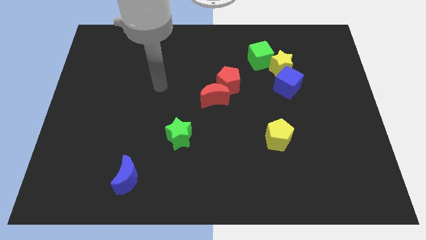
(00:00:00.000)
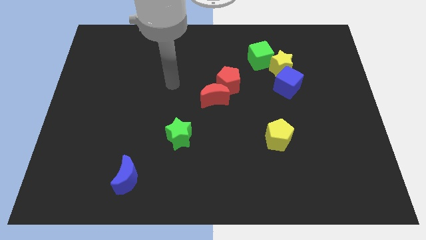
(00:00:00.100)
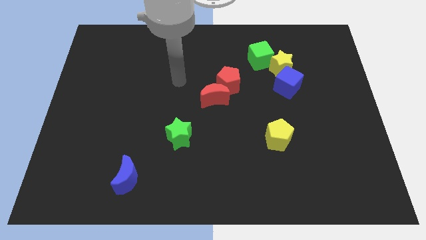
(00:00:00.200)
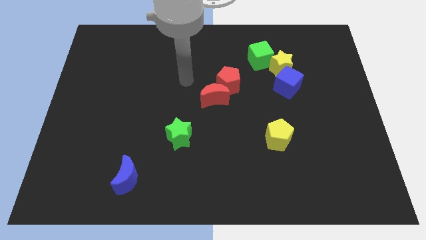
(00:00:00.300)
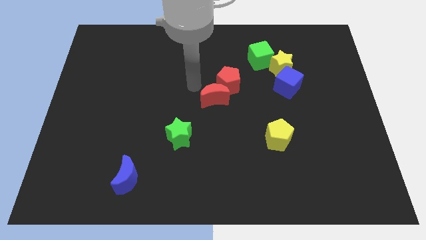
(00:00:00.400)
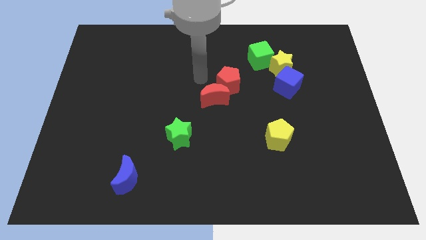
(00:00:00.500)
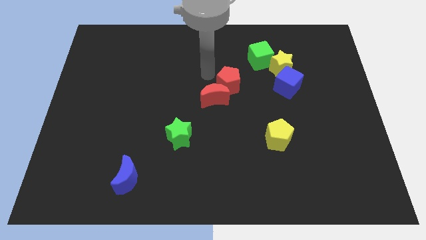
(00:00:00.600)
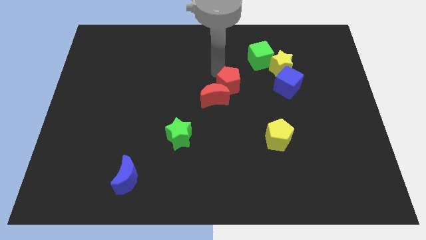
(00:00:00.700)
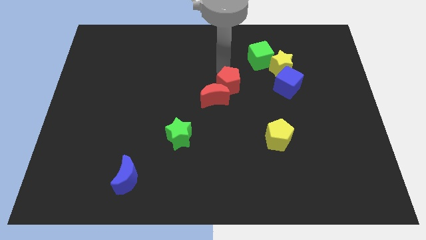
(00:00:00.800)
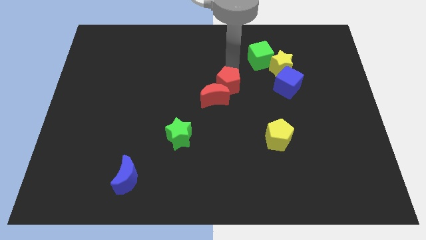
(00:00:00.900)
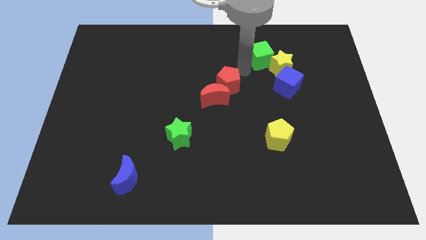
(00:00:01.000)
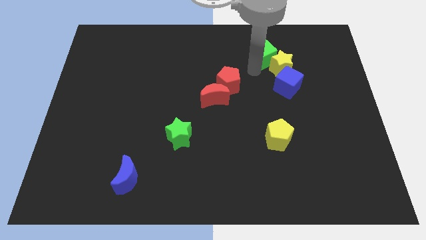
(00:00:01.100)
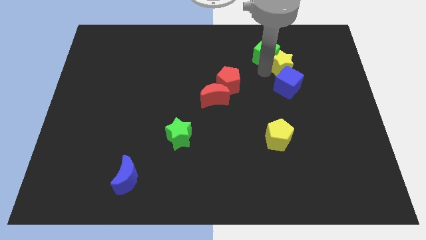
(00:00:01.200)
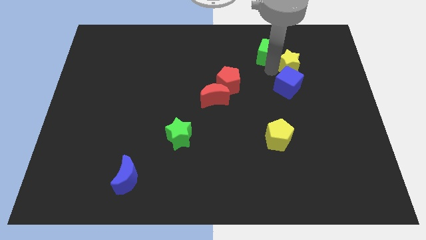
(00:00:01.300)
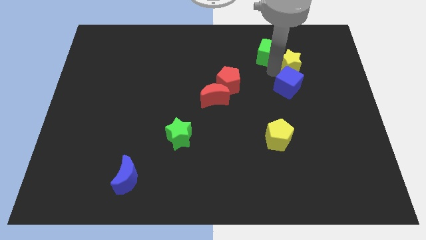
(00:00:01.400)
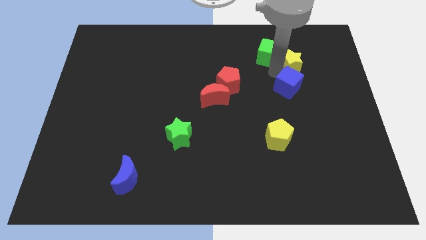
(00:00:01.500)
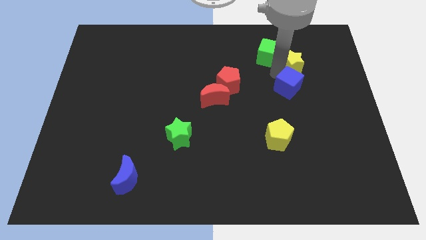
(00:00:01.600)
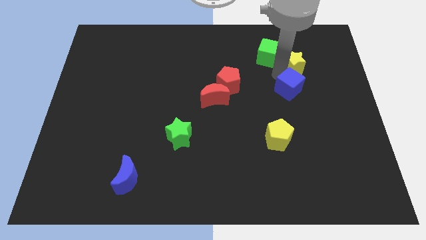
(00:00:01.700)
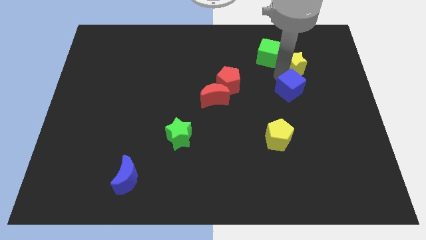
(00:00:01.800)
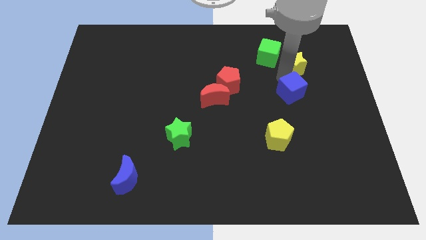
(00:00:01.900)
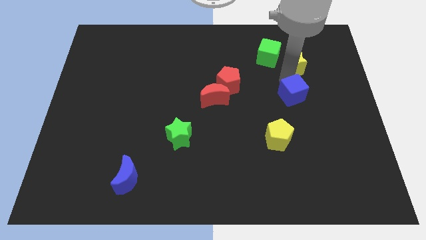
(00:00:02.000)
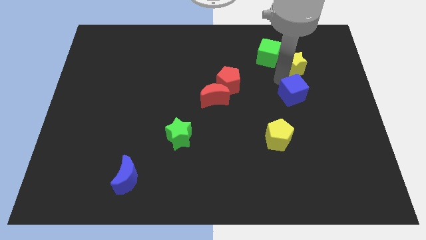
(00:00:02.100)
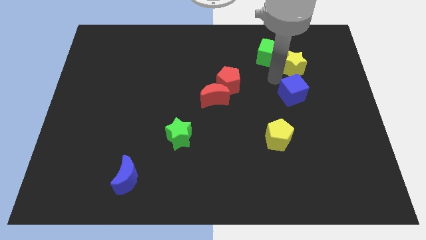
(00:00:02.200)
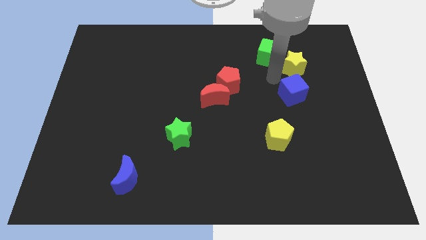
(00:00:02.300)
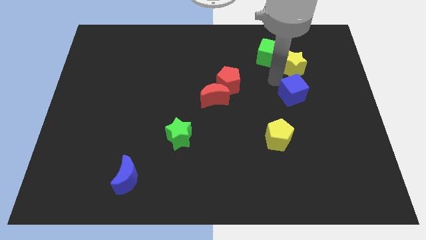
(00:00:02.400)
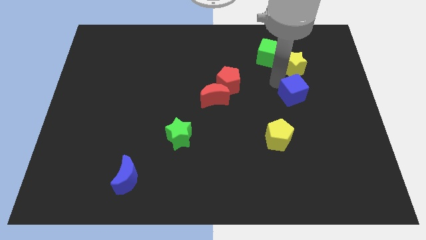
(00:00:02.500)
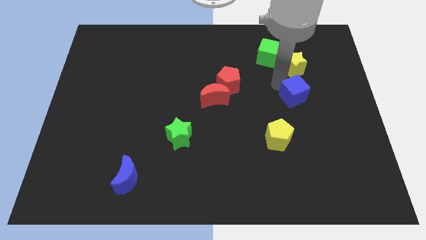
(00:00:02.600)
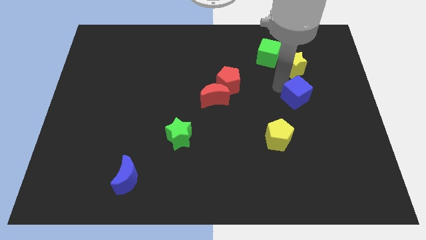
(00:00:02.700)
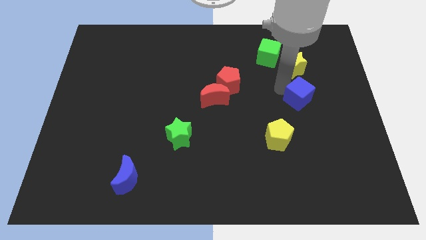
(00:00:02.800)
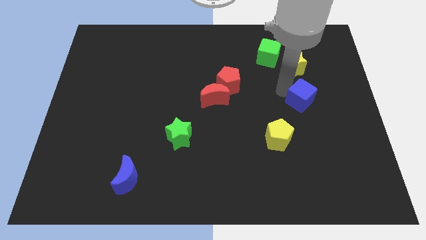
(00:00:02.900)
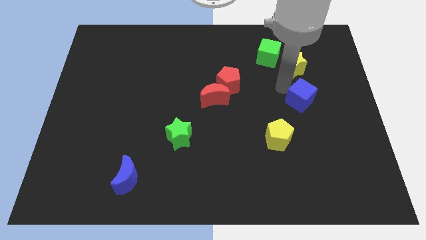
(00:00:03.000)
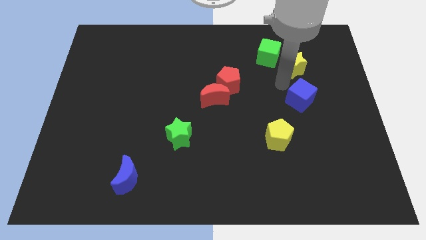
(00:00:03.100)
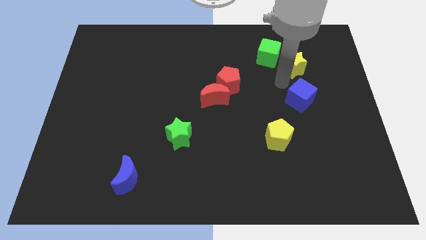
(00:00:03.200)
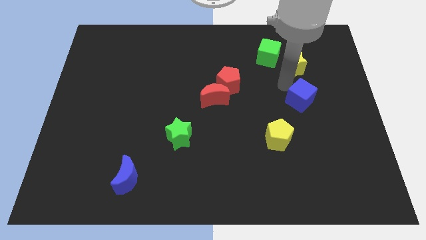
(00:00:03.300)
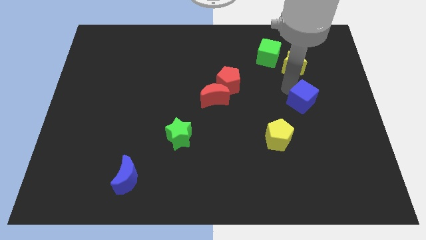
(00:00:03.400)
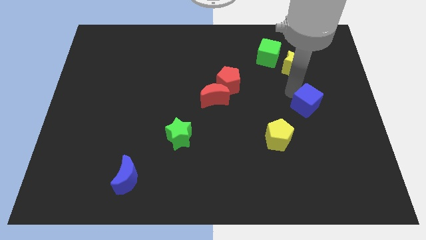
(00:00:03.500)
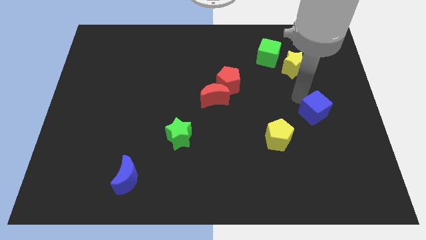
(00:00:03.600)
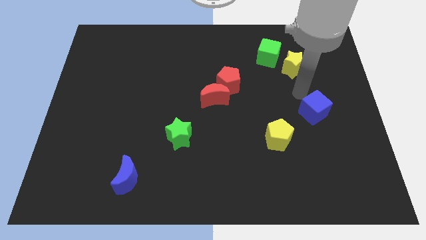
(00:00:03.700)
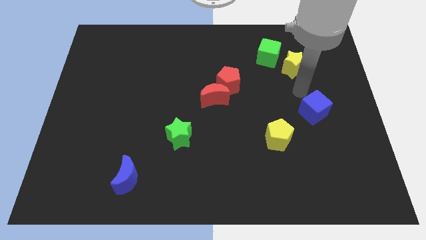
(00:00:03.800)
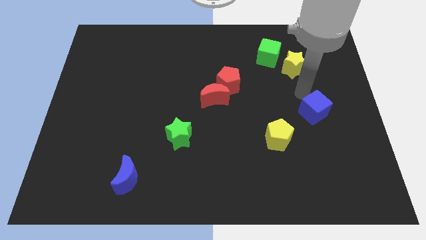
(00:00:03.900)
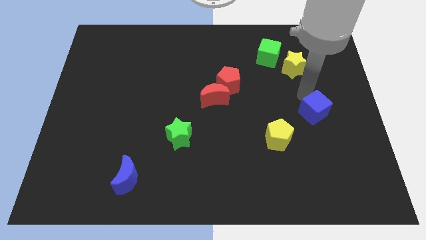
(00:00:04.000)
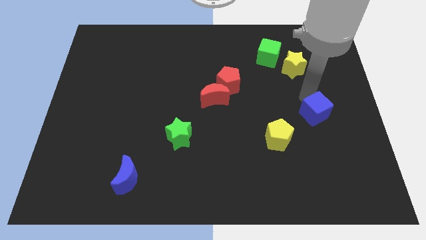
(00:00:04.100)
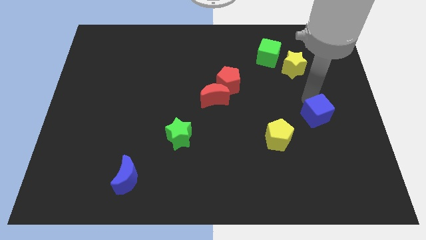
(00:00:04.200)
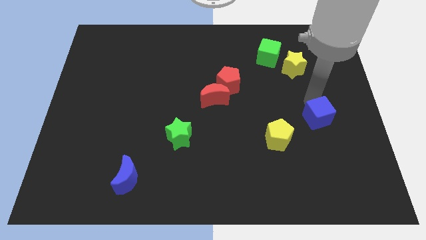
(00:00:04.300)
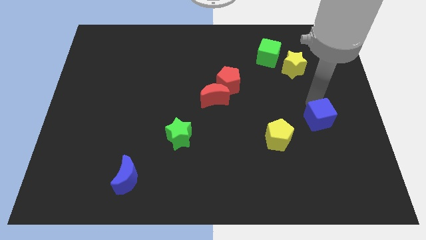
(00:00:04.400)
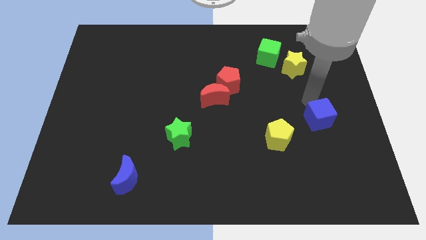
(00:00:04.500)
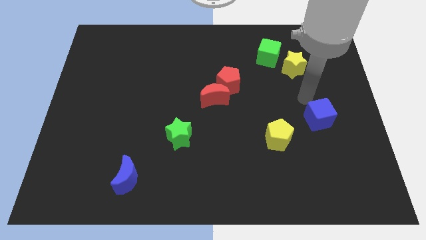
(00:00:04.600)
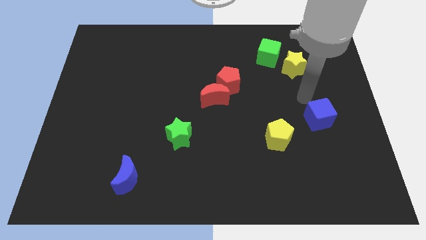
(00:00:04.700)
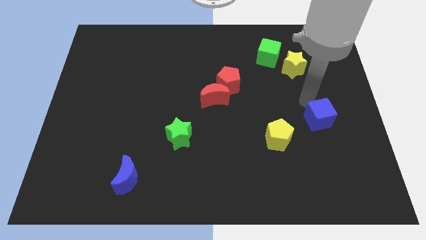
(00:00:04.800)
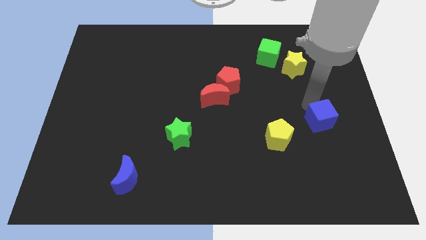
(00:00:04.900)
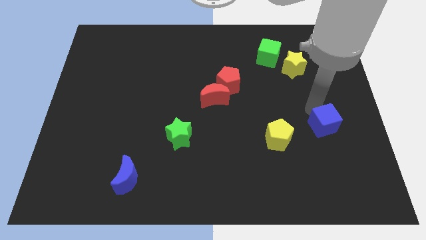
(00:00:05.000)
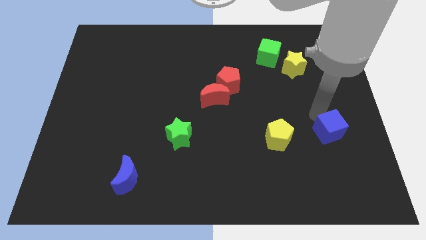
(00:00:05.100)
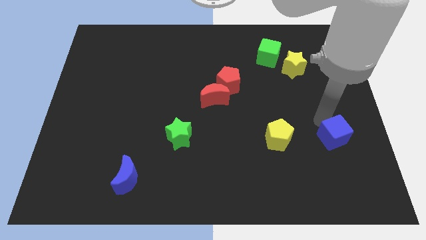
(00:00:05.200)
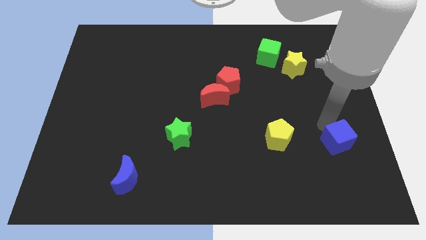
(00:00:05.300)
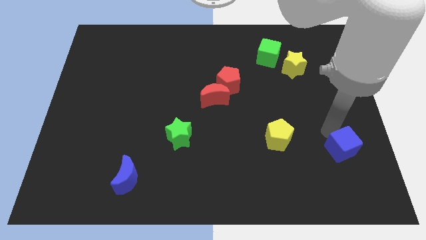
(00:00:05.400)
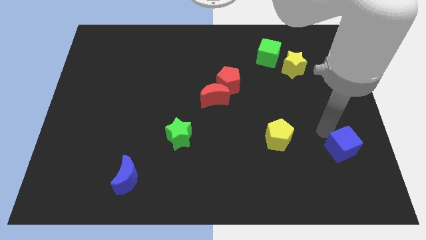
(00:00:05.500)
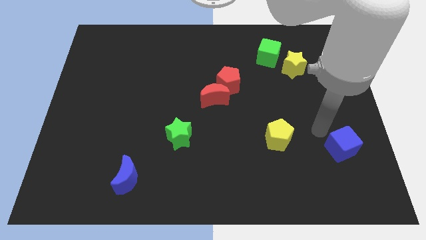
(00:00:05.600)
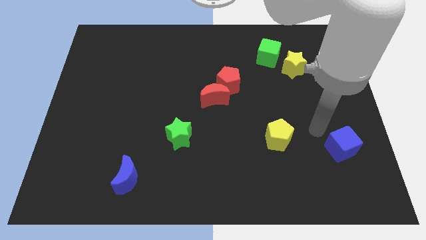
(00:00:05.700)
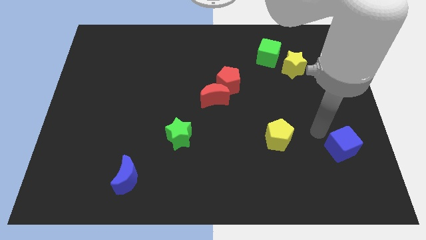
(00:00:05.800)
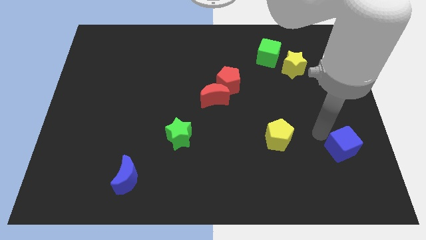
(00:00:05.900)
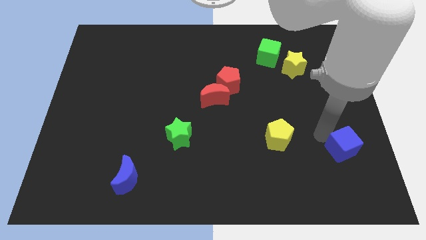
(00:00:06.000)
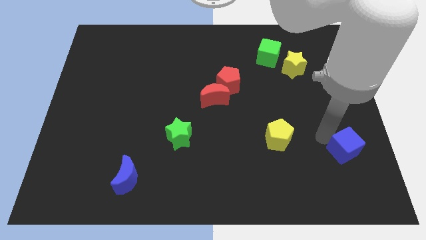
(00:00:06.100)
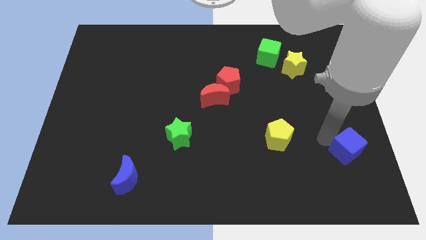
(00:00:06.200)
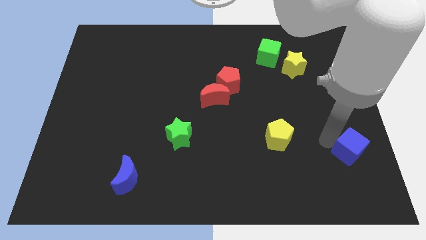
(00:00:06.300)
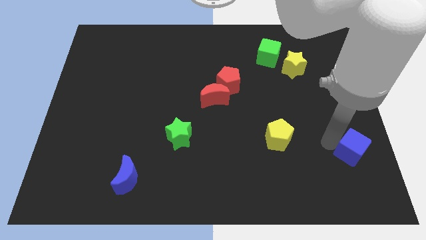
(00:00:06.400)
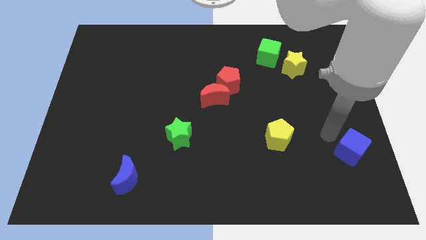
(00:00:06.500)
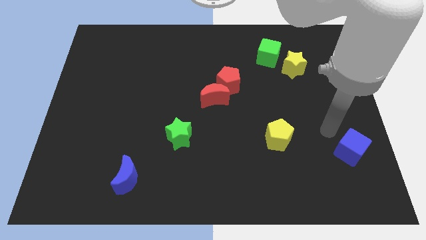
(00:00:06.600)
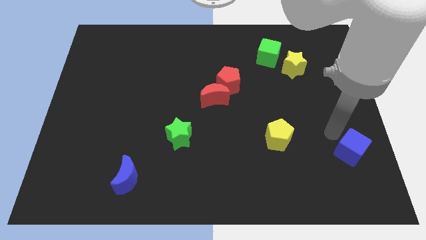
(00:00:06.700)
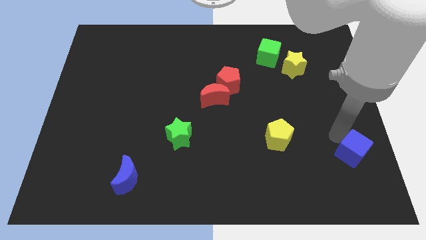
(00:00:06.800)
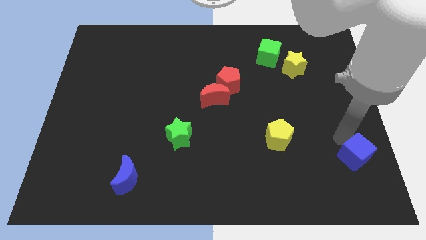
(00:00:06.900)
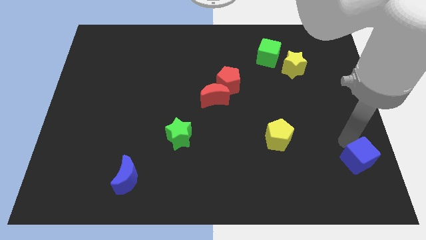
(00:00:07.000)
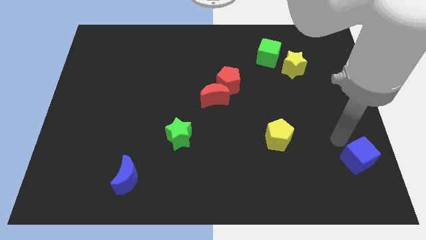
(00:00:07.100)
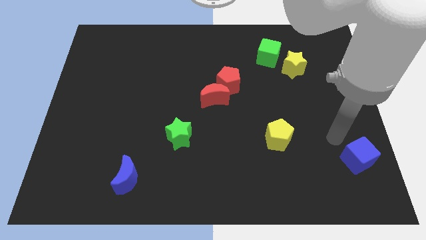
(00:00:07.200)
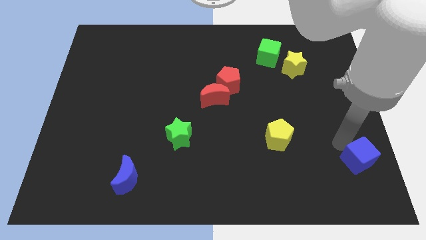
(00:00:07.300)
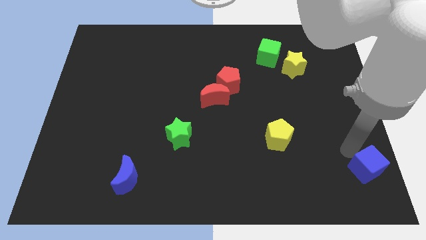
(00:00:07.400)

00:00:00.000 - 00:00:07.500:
put the blue cube to the lower right corner
